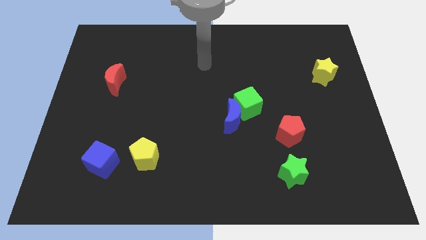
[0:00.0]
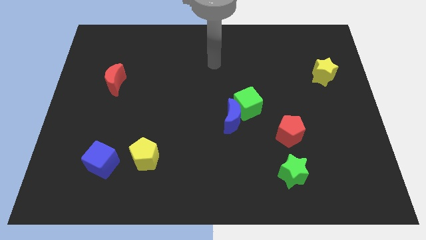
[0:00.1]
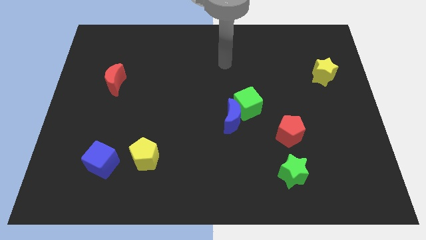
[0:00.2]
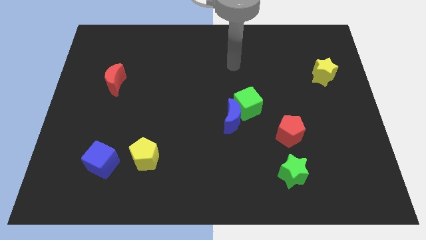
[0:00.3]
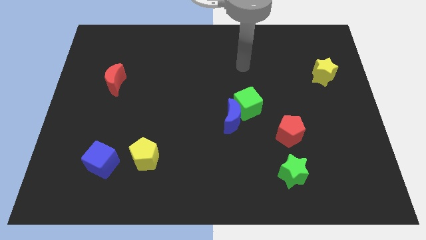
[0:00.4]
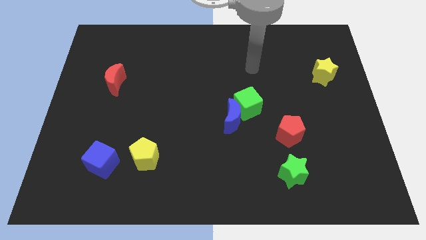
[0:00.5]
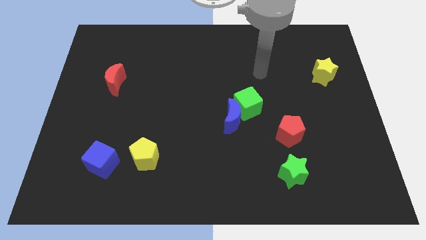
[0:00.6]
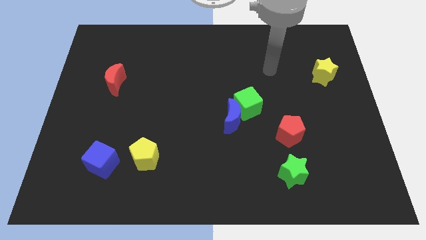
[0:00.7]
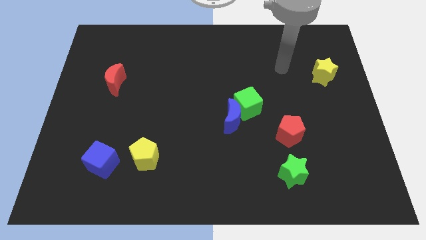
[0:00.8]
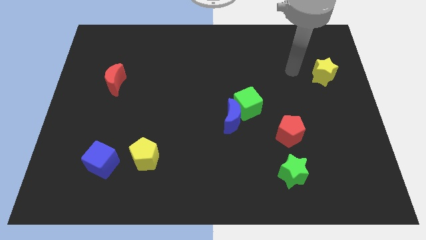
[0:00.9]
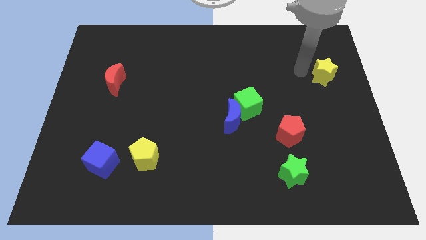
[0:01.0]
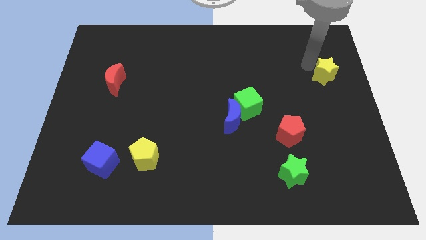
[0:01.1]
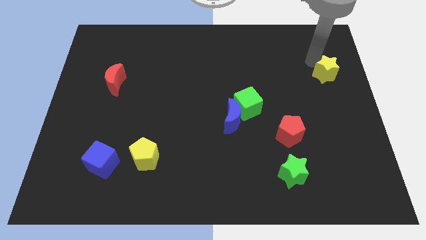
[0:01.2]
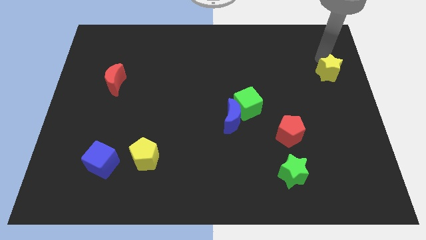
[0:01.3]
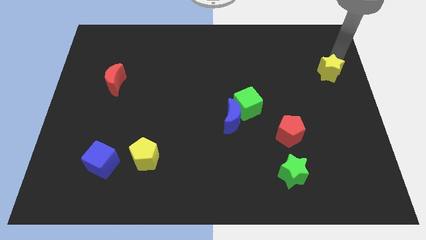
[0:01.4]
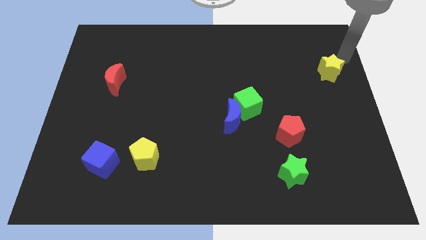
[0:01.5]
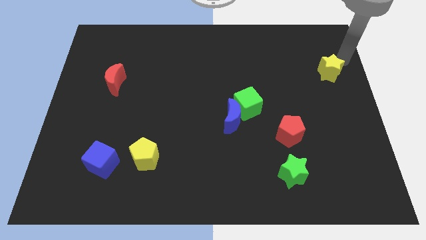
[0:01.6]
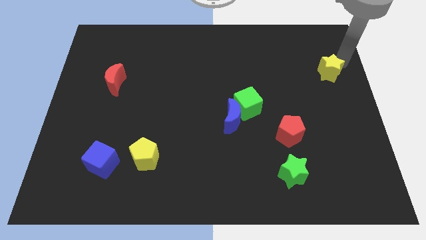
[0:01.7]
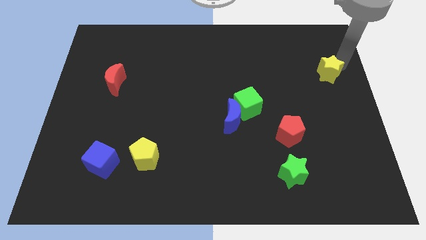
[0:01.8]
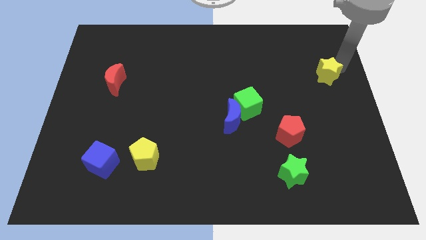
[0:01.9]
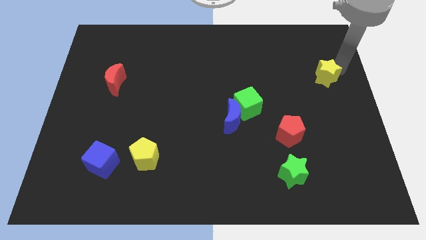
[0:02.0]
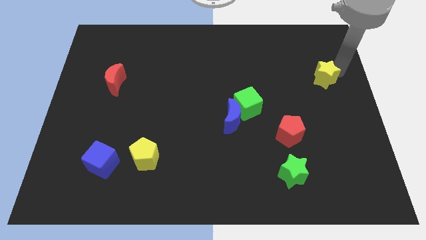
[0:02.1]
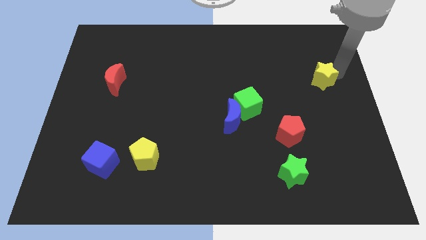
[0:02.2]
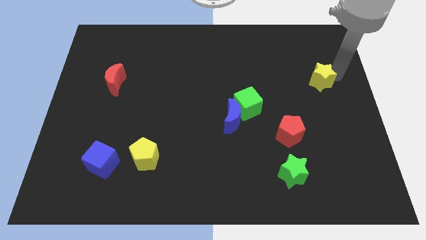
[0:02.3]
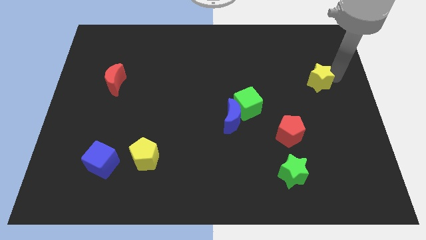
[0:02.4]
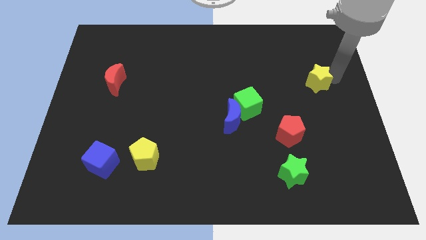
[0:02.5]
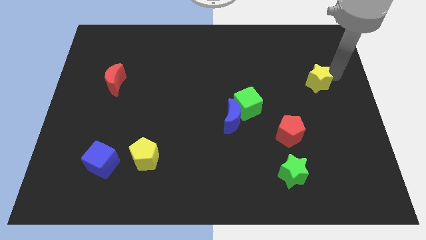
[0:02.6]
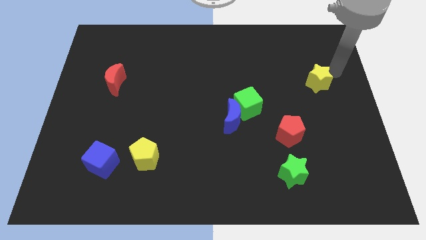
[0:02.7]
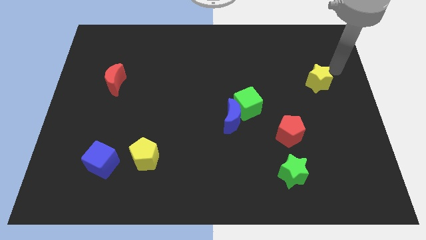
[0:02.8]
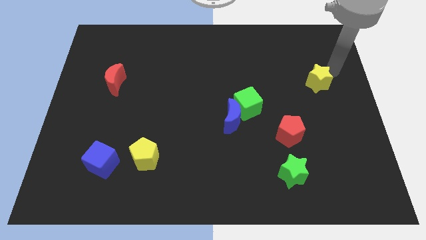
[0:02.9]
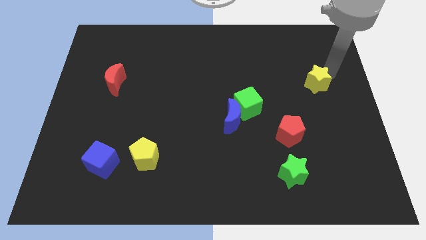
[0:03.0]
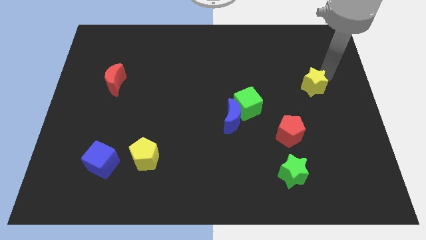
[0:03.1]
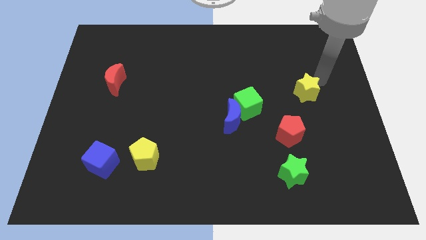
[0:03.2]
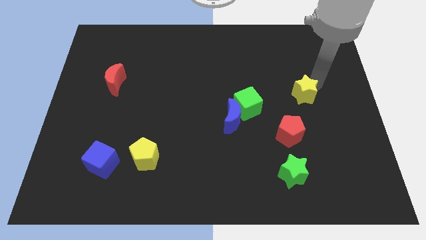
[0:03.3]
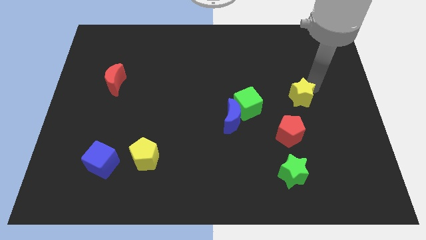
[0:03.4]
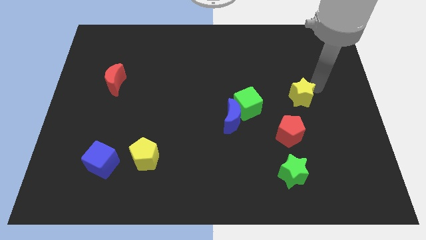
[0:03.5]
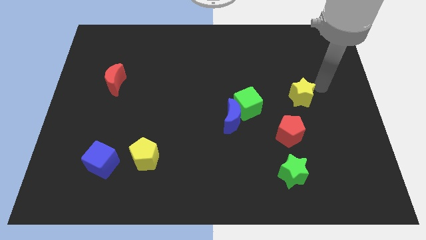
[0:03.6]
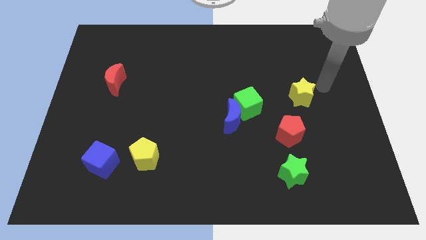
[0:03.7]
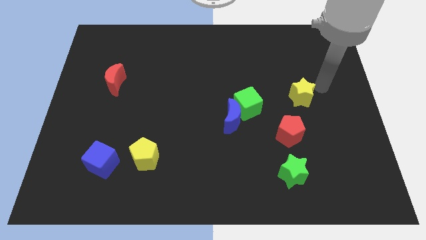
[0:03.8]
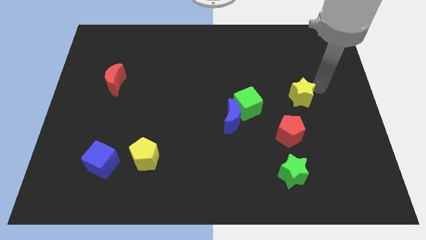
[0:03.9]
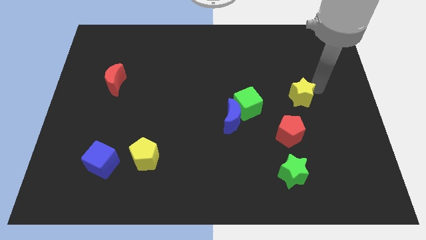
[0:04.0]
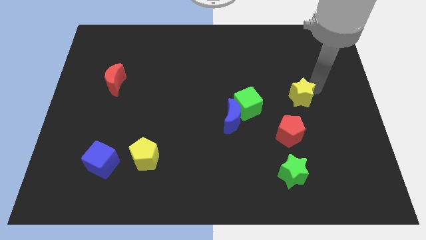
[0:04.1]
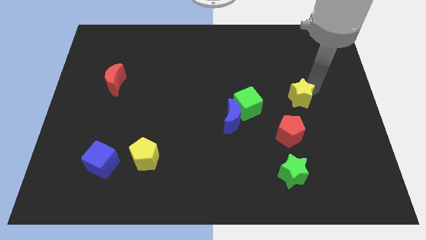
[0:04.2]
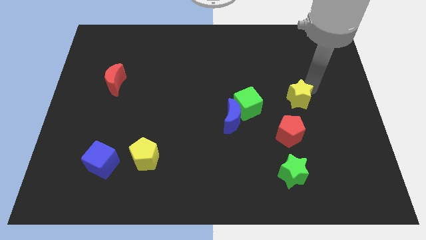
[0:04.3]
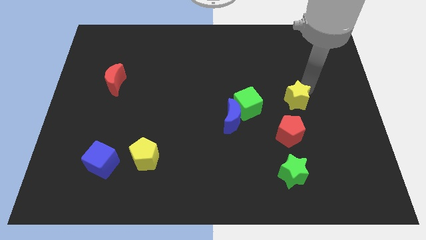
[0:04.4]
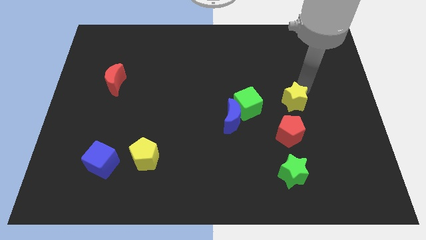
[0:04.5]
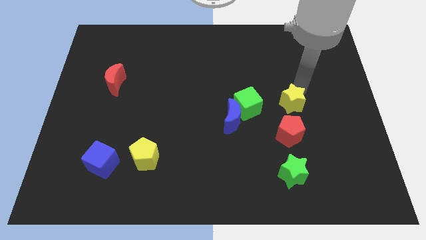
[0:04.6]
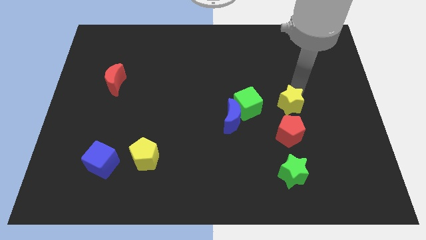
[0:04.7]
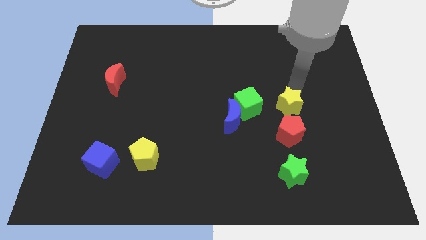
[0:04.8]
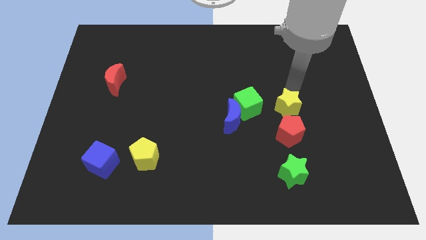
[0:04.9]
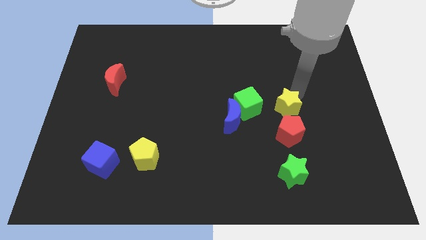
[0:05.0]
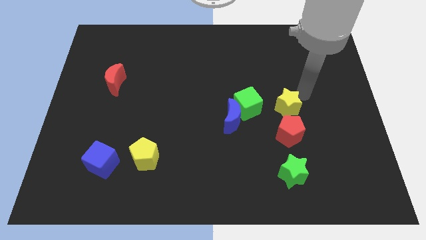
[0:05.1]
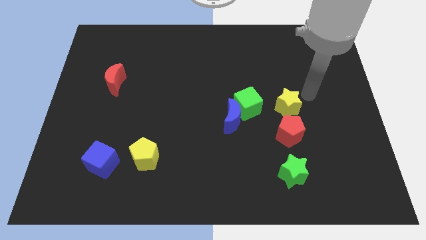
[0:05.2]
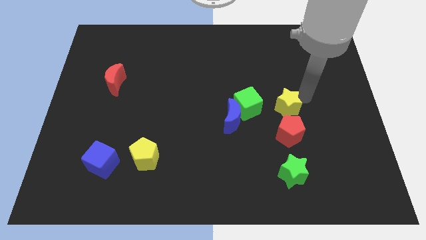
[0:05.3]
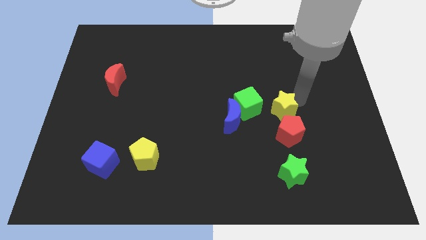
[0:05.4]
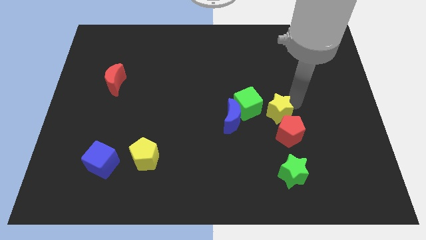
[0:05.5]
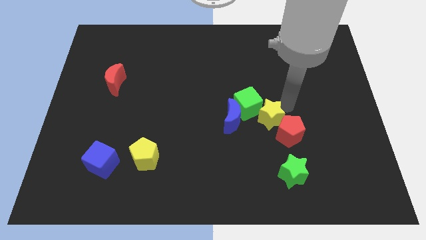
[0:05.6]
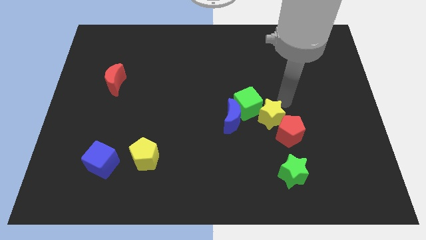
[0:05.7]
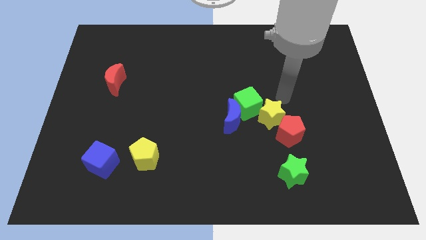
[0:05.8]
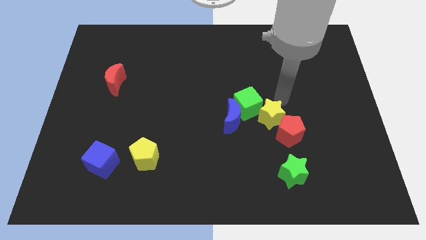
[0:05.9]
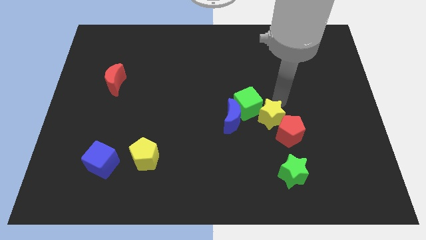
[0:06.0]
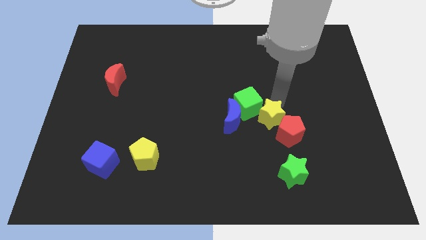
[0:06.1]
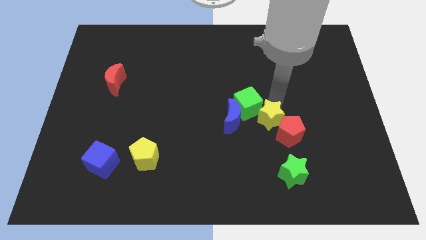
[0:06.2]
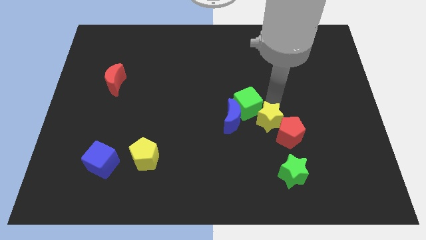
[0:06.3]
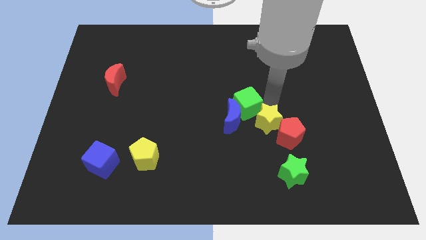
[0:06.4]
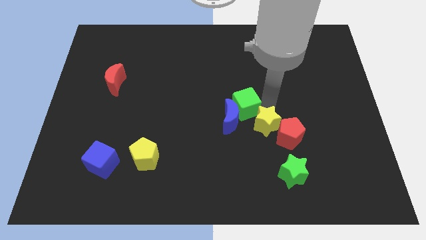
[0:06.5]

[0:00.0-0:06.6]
push the yellow star to the bottom right side of the blue moon
